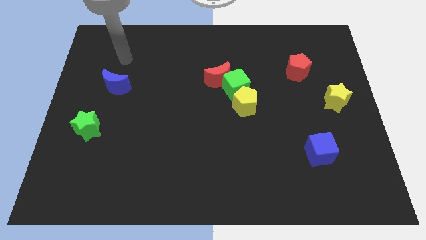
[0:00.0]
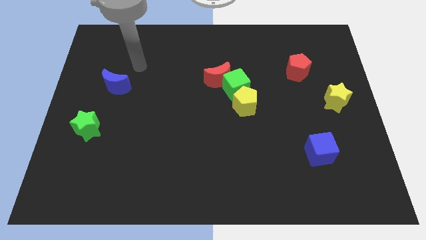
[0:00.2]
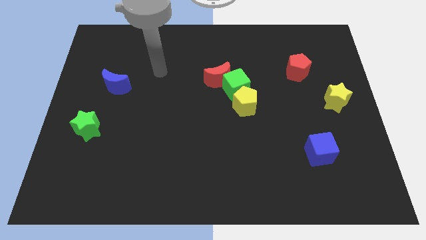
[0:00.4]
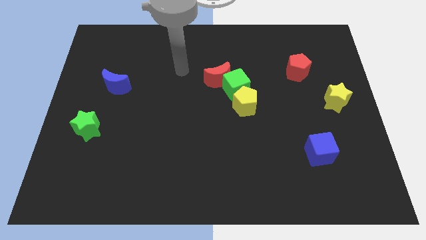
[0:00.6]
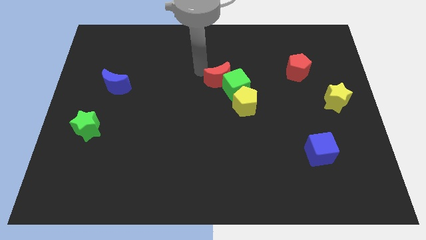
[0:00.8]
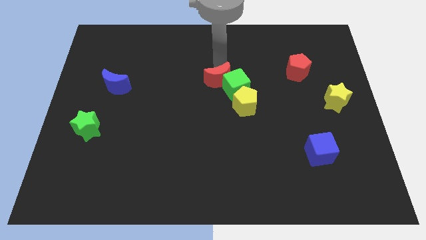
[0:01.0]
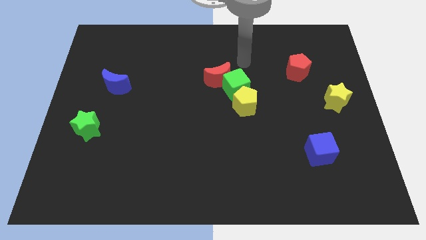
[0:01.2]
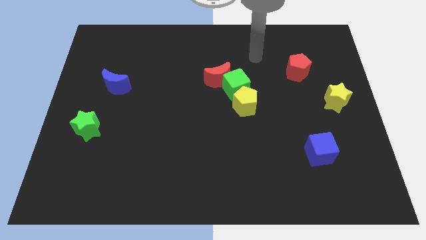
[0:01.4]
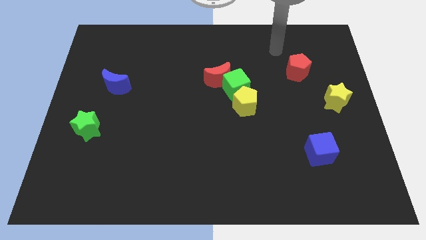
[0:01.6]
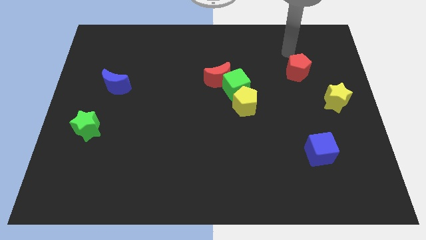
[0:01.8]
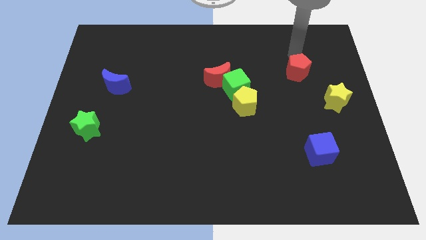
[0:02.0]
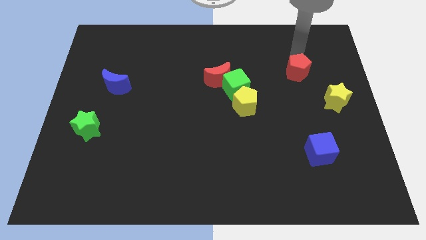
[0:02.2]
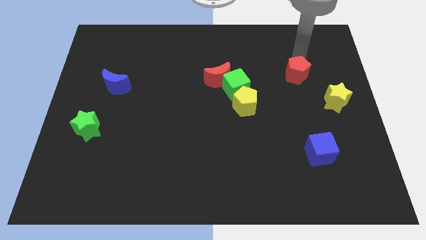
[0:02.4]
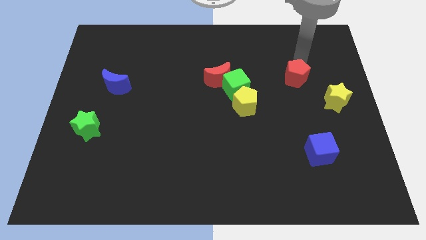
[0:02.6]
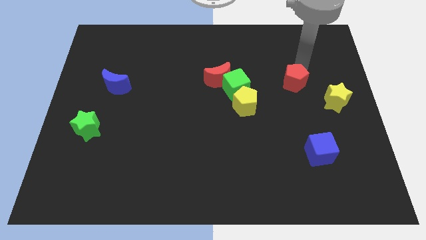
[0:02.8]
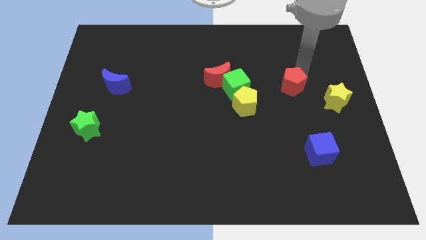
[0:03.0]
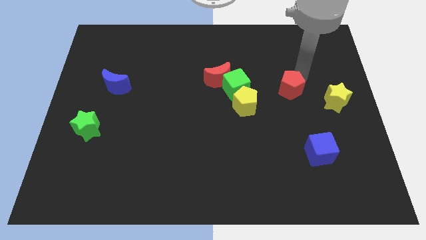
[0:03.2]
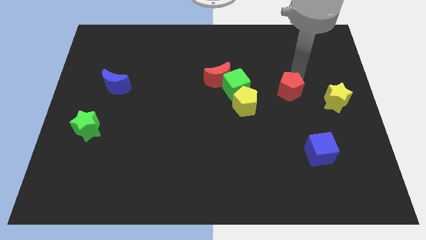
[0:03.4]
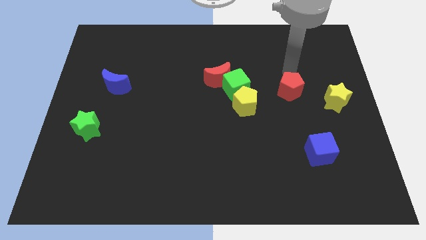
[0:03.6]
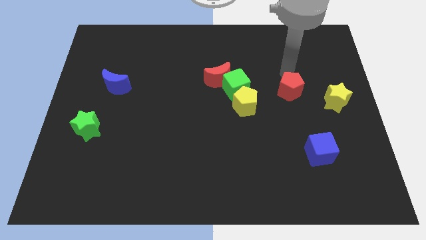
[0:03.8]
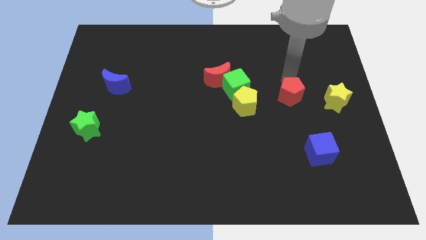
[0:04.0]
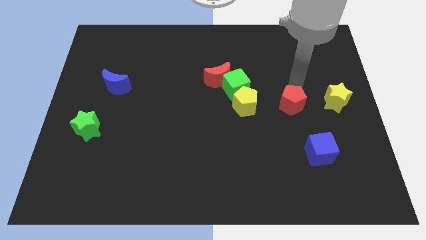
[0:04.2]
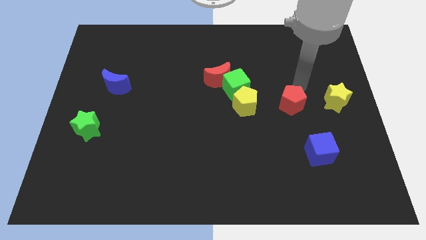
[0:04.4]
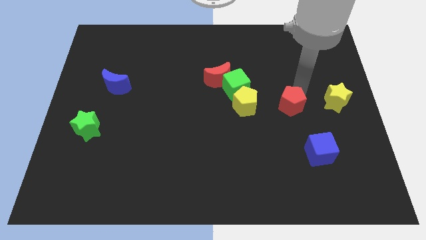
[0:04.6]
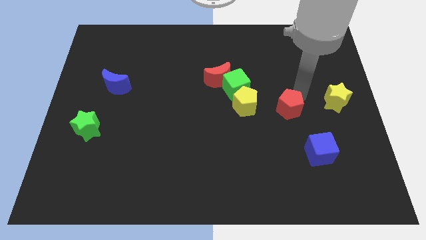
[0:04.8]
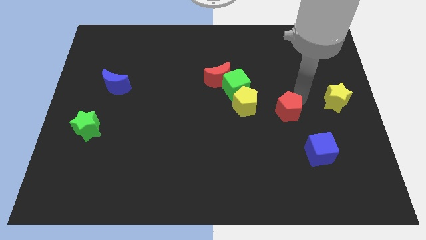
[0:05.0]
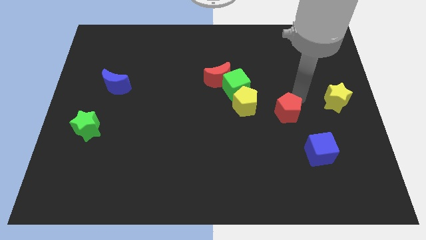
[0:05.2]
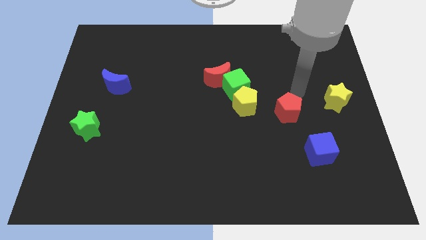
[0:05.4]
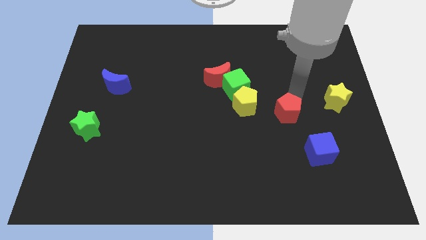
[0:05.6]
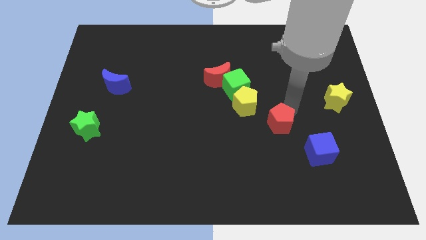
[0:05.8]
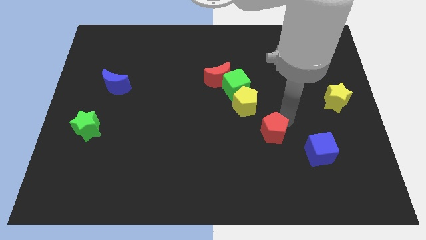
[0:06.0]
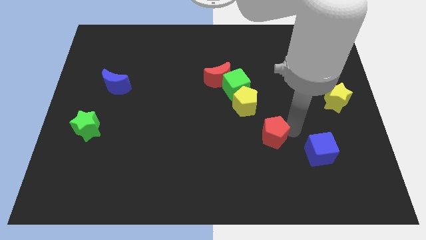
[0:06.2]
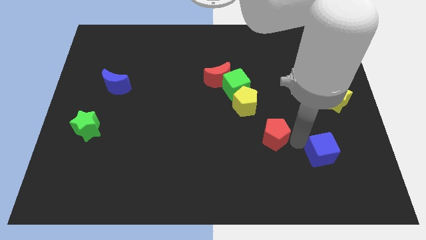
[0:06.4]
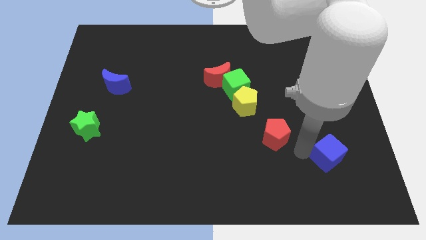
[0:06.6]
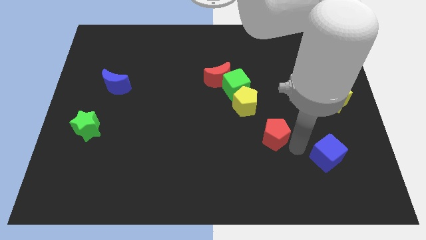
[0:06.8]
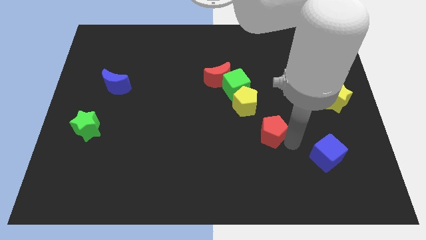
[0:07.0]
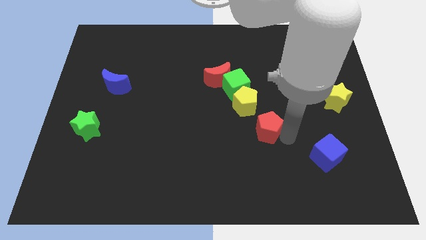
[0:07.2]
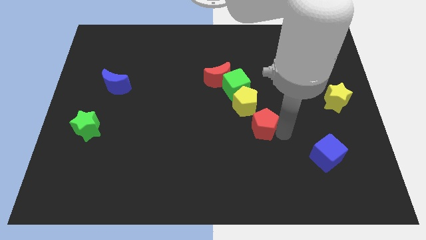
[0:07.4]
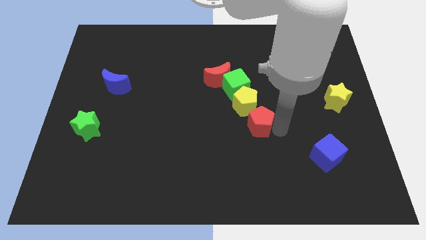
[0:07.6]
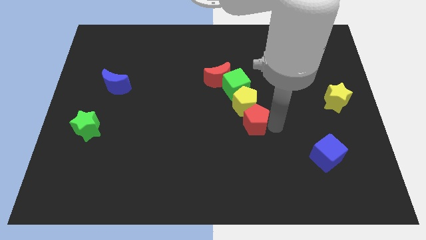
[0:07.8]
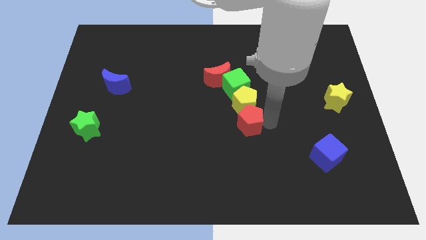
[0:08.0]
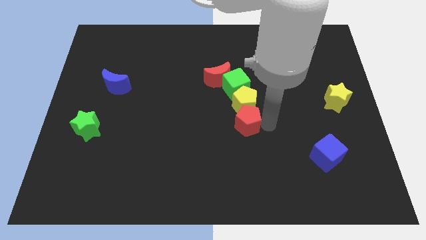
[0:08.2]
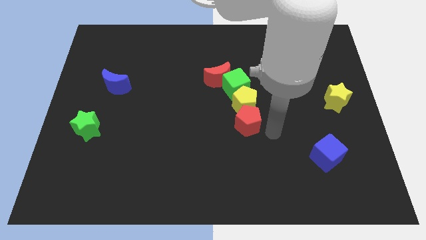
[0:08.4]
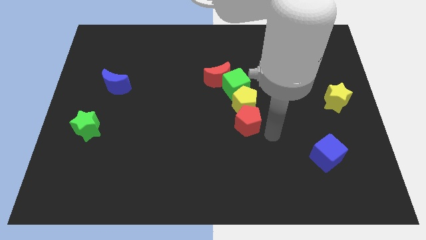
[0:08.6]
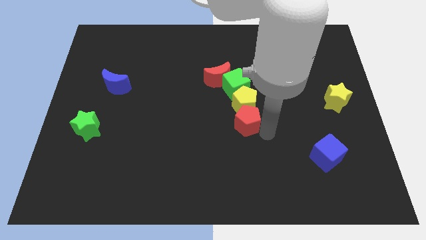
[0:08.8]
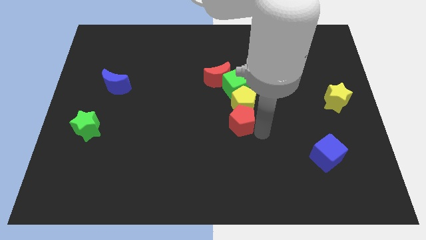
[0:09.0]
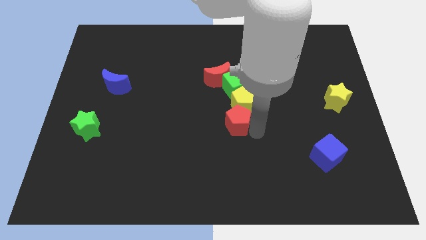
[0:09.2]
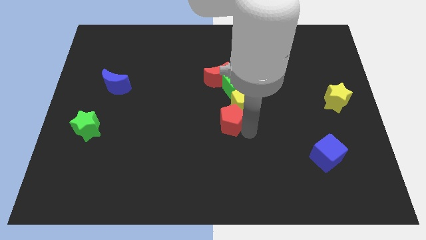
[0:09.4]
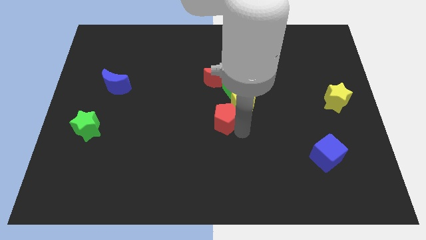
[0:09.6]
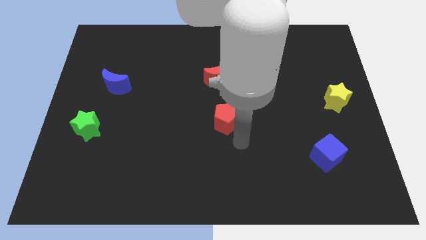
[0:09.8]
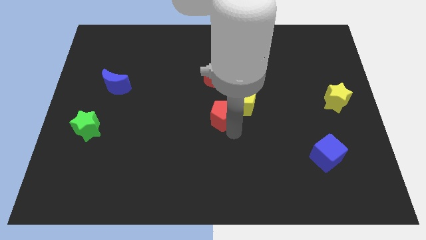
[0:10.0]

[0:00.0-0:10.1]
slide the red pentagon diagonally down and to the left of the green cube

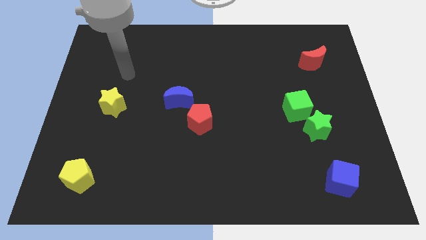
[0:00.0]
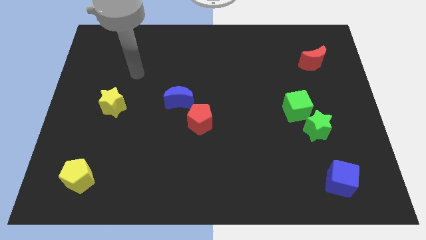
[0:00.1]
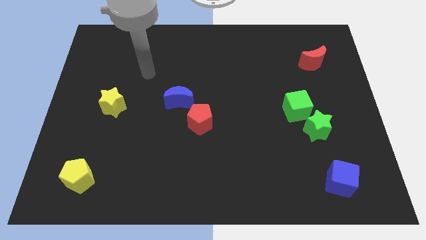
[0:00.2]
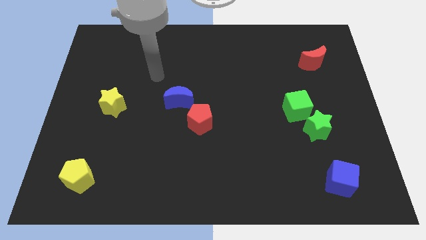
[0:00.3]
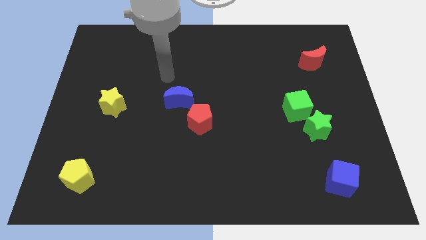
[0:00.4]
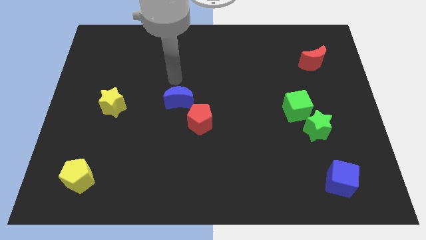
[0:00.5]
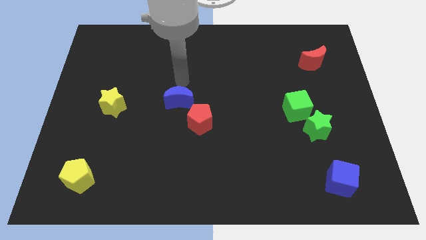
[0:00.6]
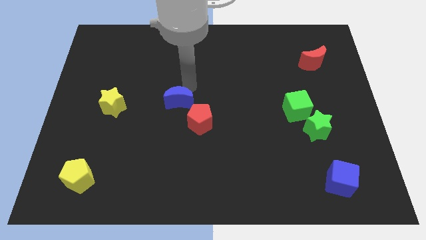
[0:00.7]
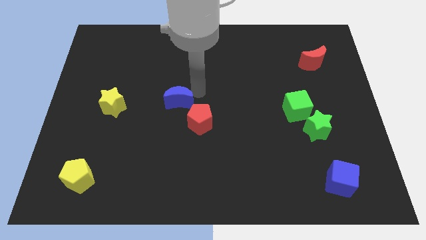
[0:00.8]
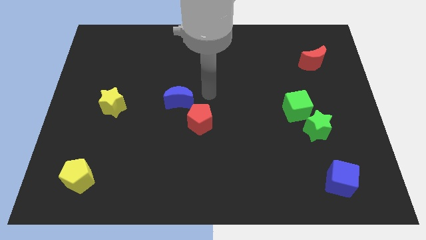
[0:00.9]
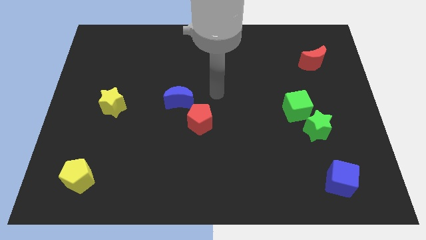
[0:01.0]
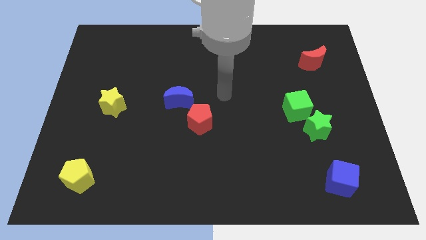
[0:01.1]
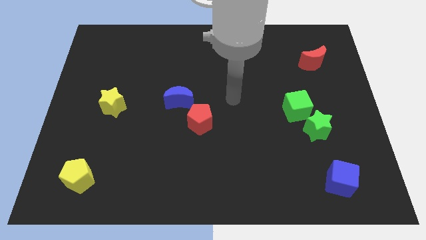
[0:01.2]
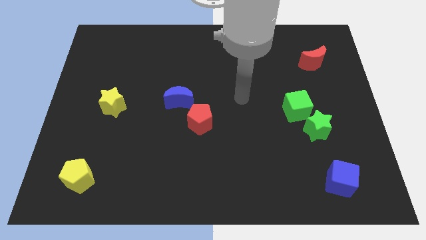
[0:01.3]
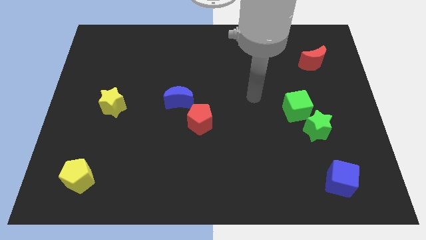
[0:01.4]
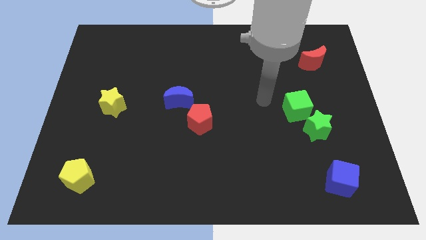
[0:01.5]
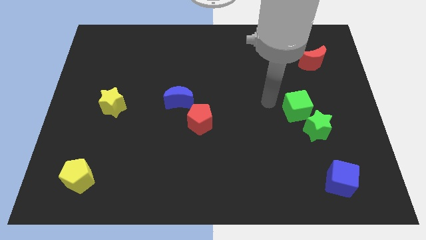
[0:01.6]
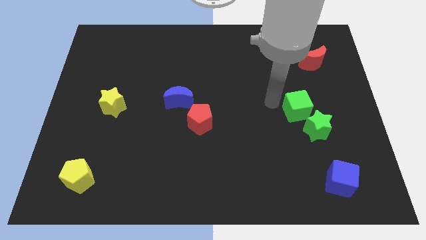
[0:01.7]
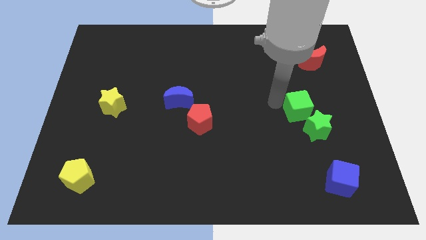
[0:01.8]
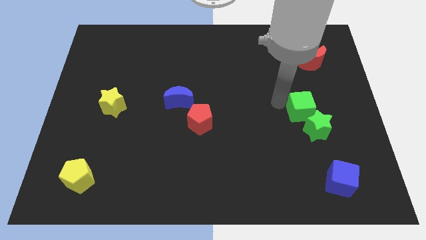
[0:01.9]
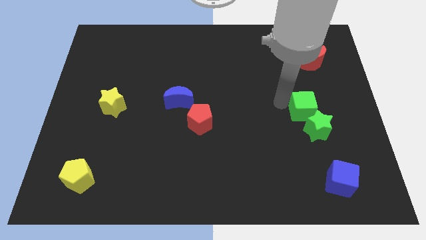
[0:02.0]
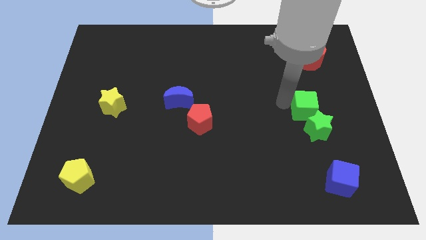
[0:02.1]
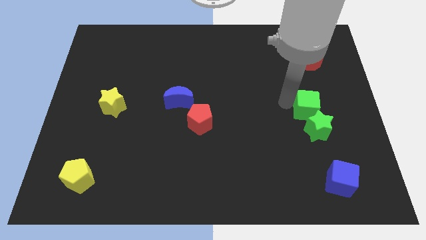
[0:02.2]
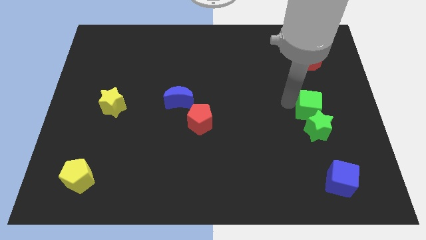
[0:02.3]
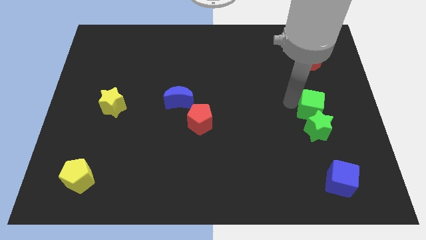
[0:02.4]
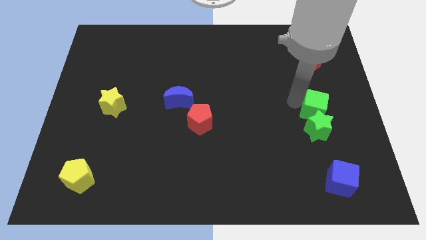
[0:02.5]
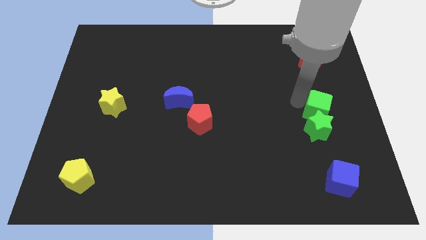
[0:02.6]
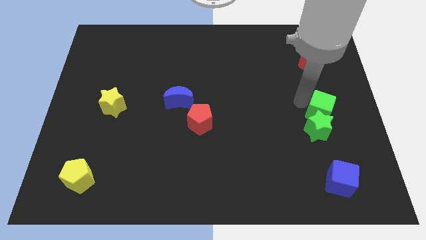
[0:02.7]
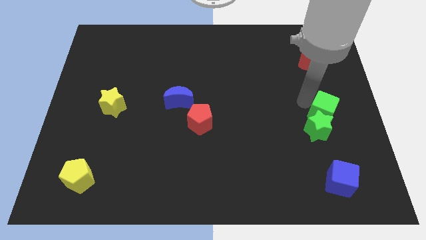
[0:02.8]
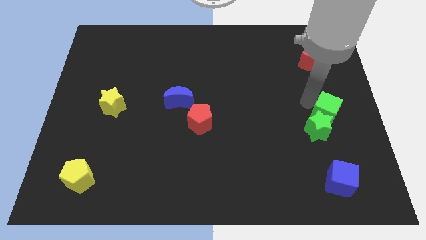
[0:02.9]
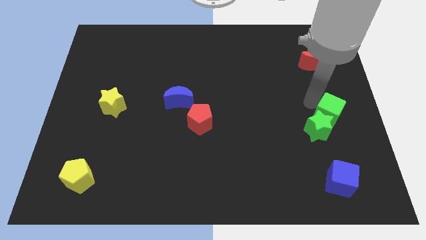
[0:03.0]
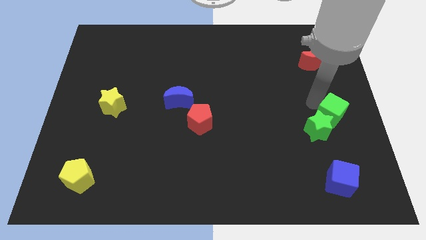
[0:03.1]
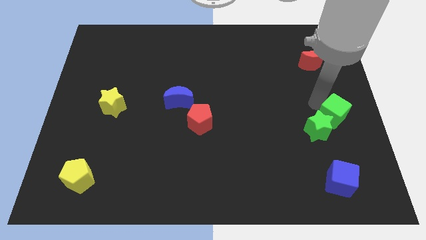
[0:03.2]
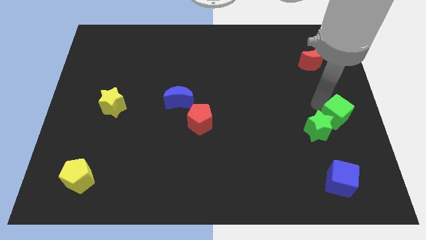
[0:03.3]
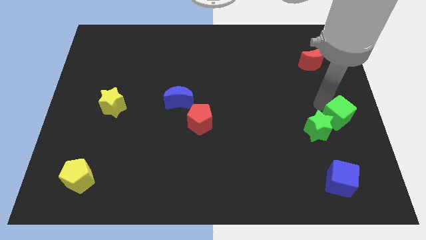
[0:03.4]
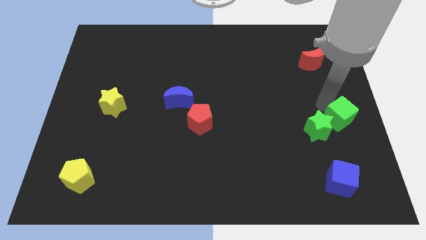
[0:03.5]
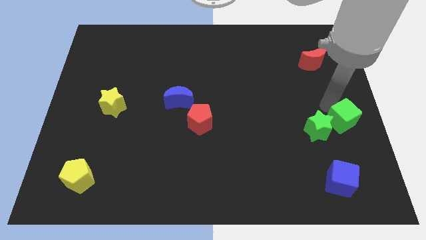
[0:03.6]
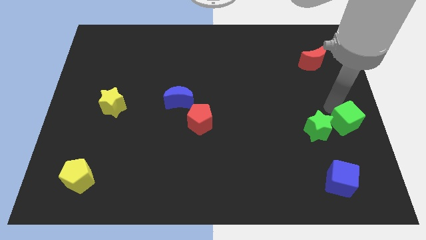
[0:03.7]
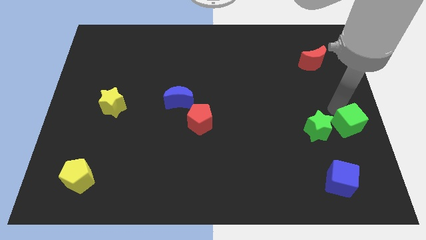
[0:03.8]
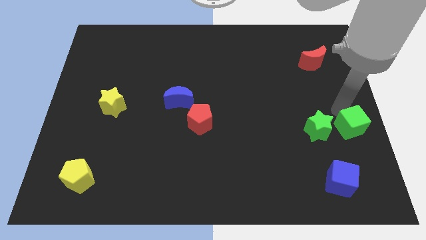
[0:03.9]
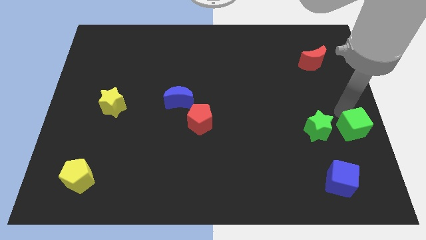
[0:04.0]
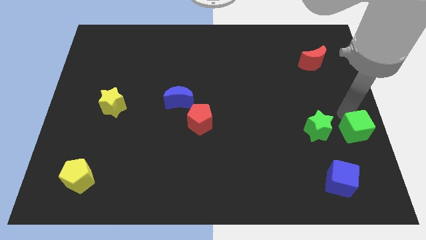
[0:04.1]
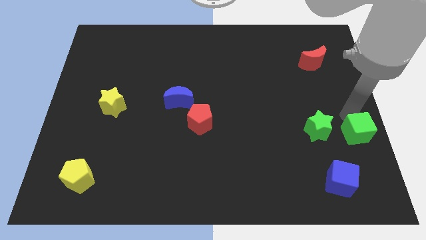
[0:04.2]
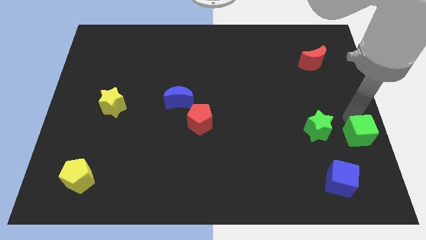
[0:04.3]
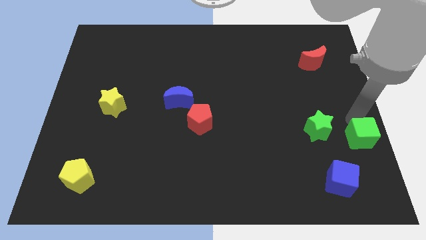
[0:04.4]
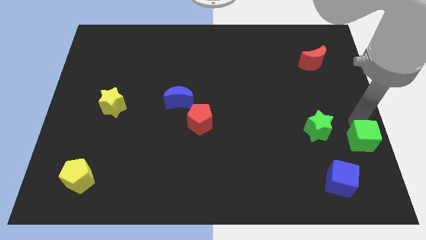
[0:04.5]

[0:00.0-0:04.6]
move the green cube to the bottom right of the green star
